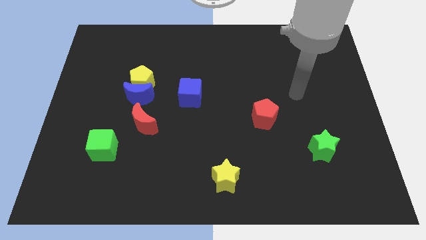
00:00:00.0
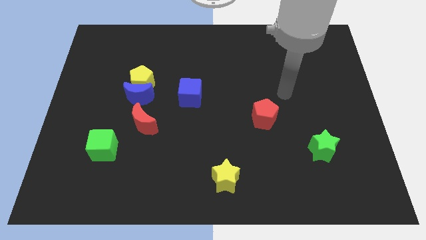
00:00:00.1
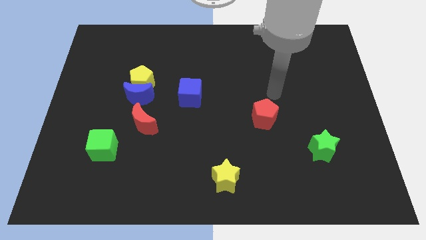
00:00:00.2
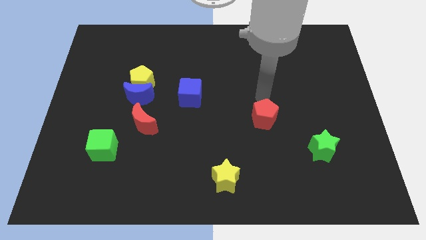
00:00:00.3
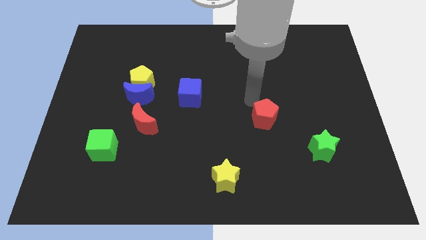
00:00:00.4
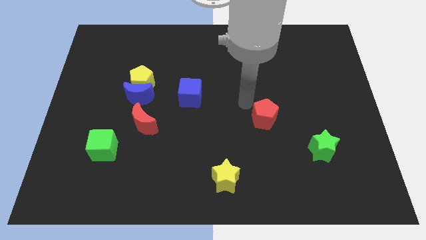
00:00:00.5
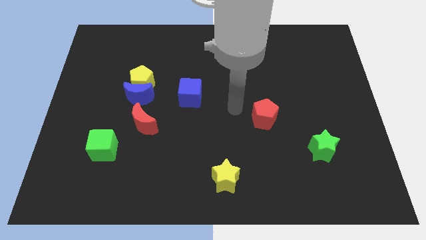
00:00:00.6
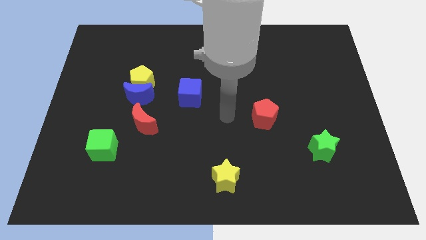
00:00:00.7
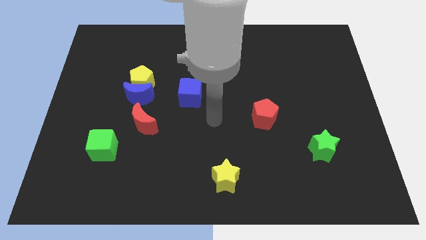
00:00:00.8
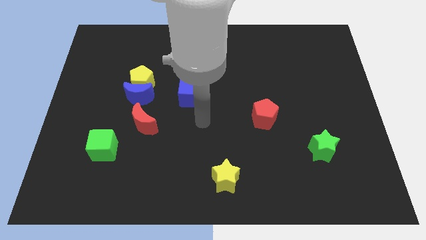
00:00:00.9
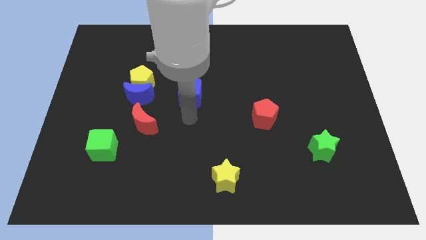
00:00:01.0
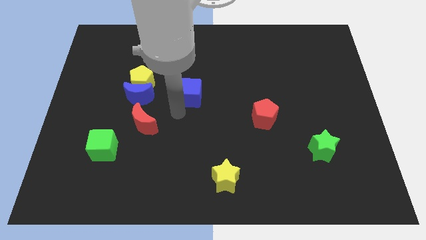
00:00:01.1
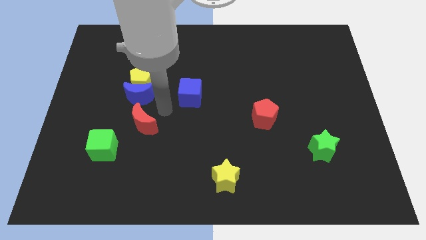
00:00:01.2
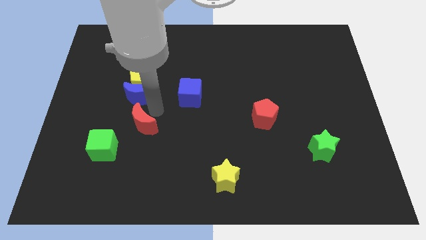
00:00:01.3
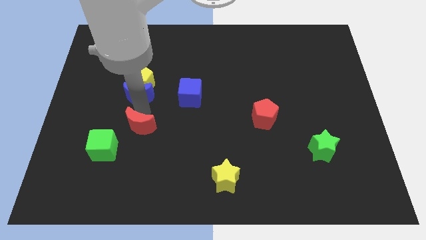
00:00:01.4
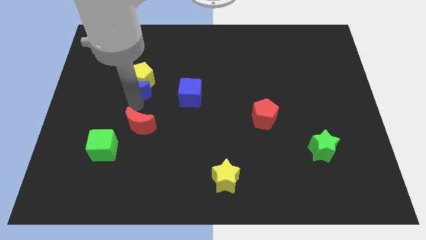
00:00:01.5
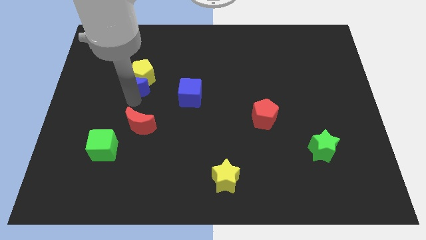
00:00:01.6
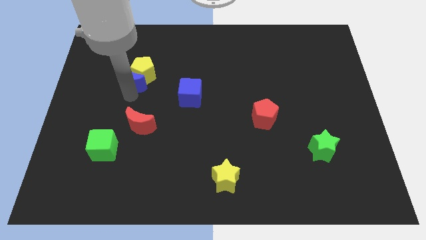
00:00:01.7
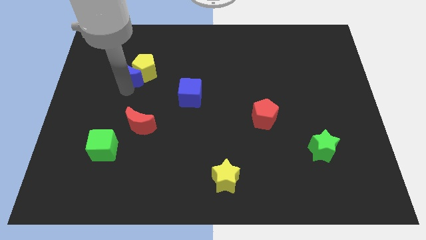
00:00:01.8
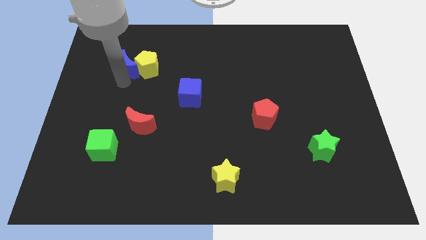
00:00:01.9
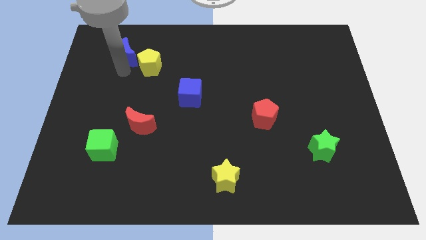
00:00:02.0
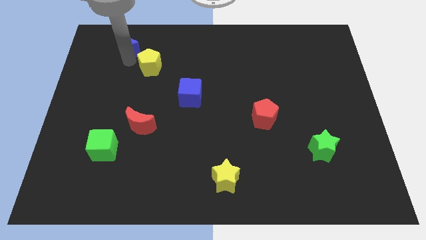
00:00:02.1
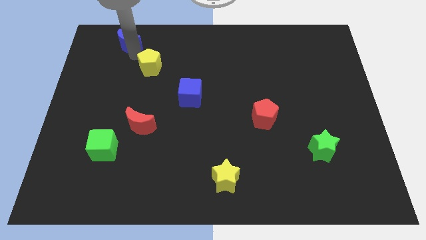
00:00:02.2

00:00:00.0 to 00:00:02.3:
pull the yellow pentagon apart from the blue moon

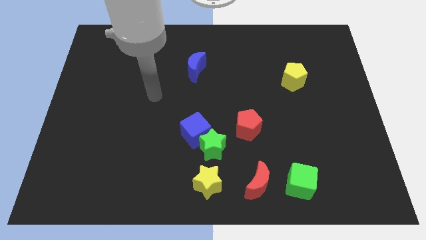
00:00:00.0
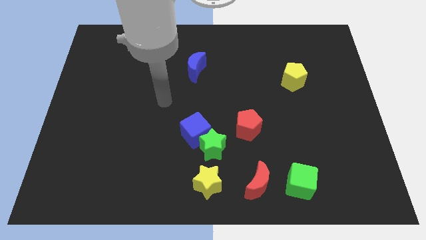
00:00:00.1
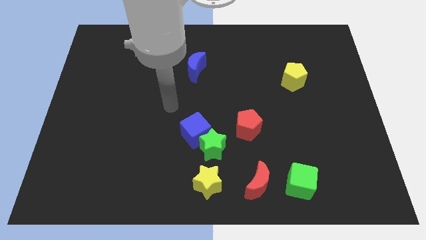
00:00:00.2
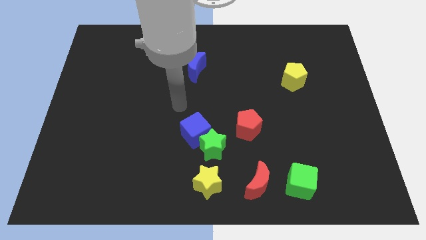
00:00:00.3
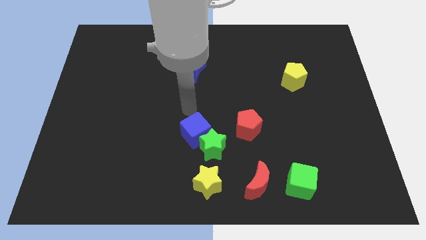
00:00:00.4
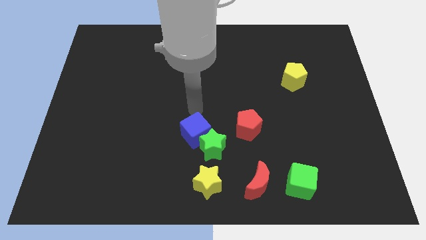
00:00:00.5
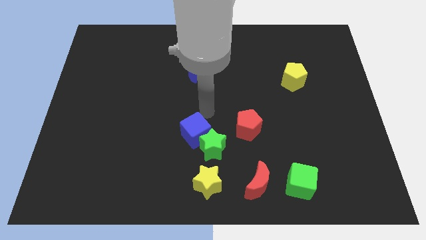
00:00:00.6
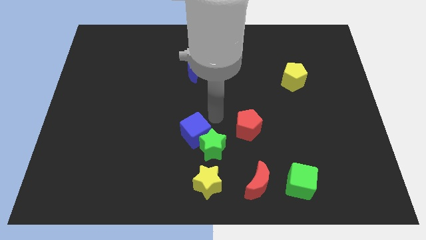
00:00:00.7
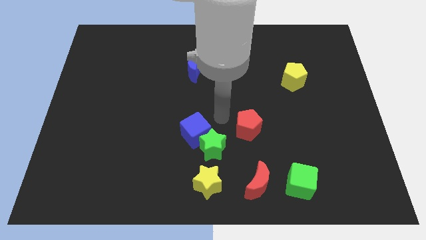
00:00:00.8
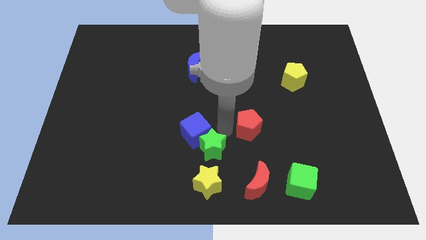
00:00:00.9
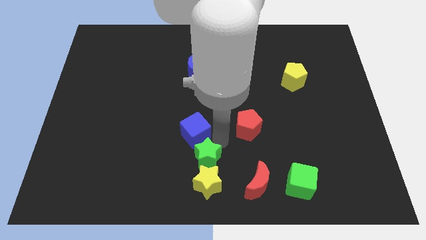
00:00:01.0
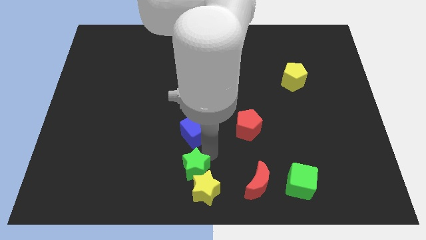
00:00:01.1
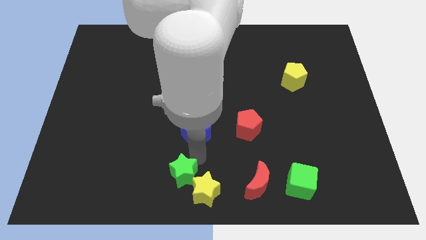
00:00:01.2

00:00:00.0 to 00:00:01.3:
separate the blue cube from the green star

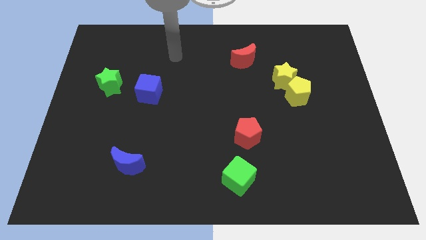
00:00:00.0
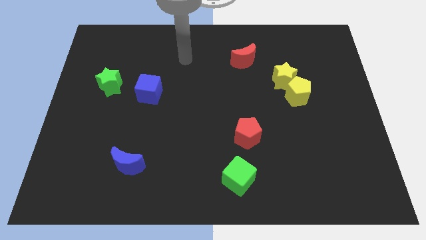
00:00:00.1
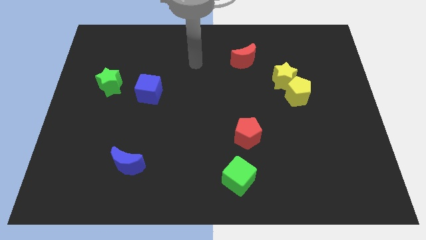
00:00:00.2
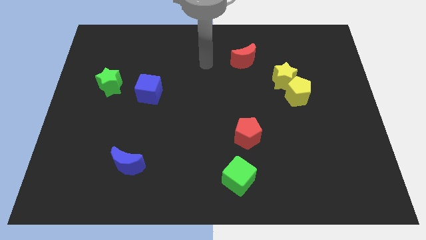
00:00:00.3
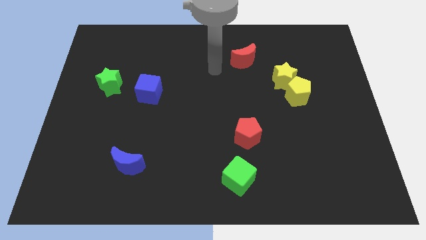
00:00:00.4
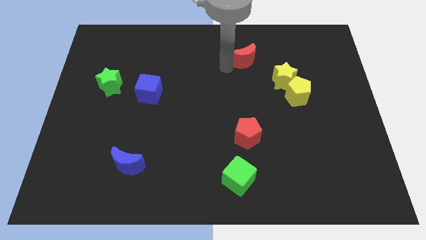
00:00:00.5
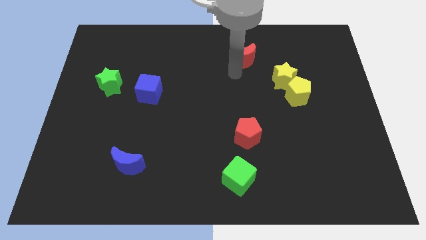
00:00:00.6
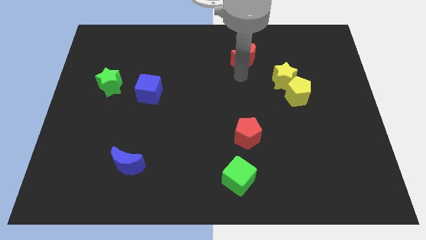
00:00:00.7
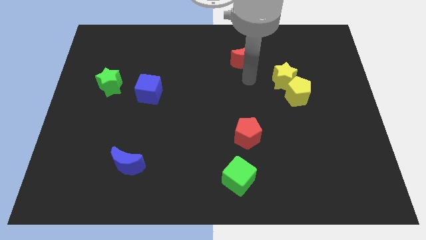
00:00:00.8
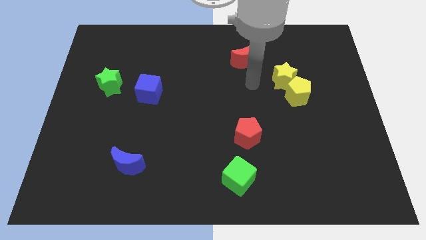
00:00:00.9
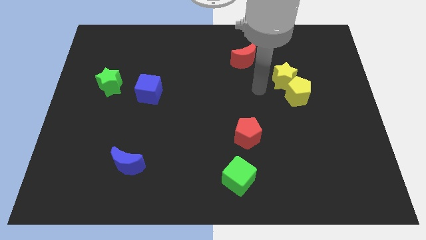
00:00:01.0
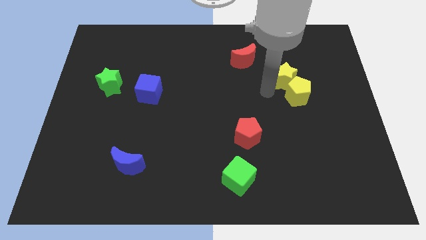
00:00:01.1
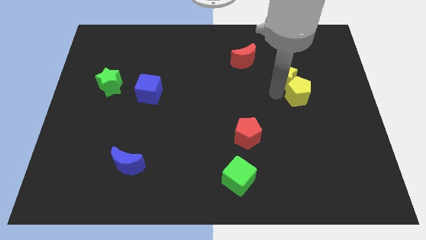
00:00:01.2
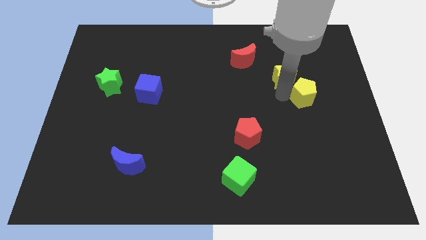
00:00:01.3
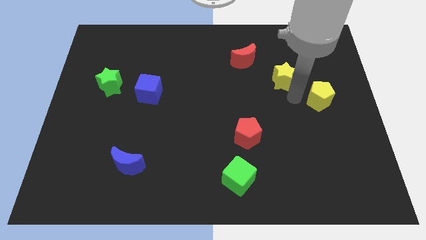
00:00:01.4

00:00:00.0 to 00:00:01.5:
move the yellow star away from the yellow pentagon

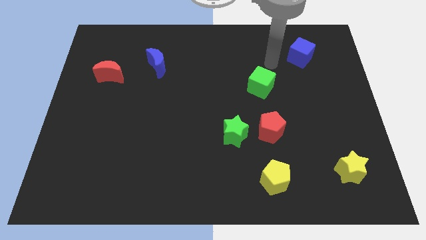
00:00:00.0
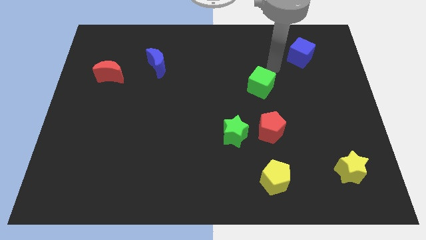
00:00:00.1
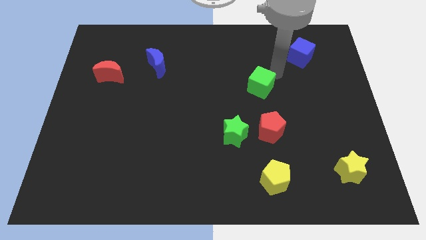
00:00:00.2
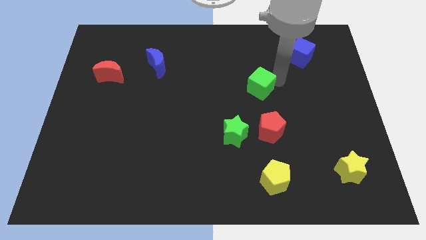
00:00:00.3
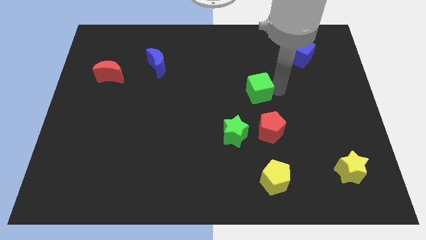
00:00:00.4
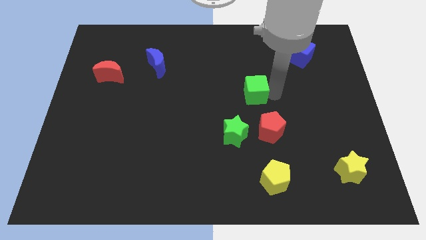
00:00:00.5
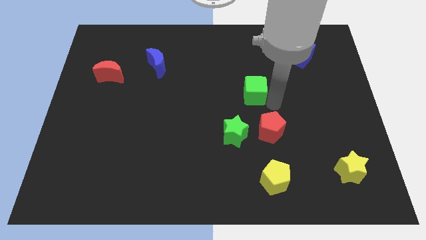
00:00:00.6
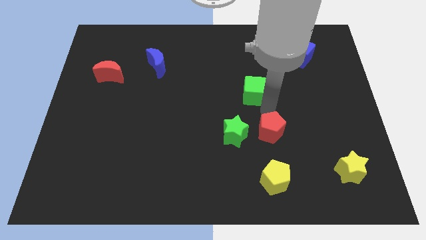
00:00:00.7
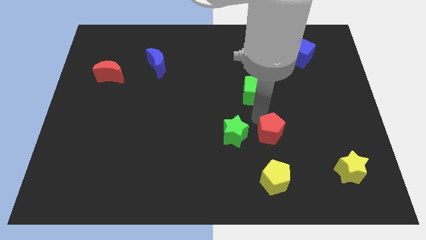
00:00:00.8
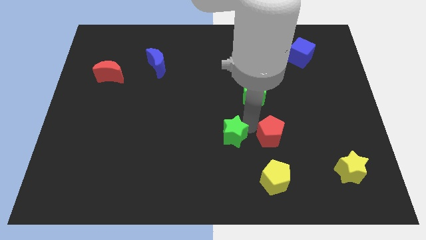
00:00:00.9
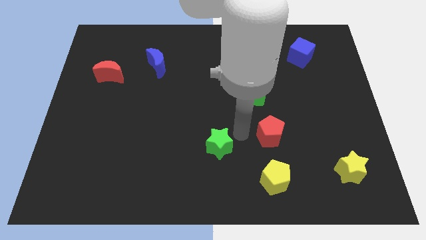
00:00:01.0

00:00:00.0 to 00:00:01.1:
pull the red pentagon apart from the green star

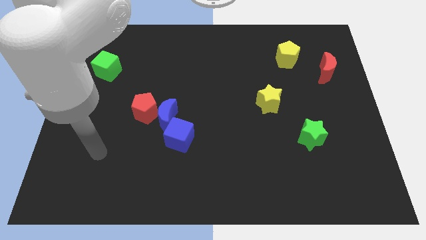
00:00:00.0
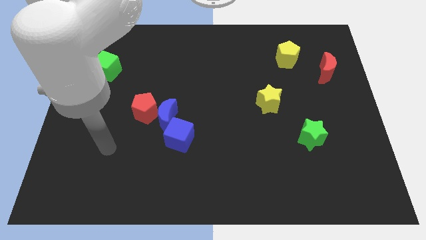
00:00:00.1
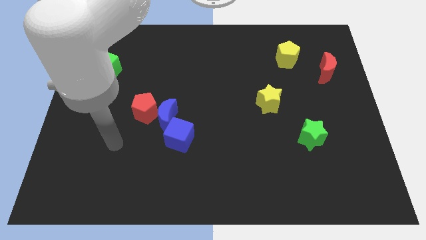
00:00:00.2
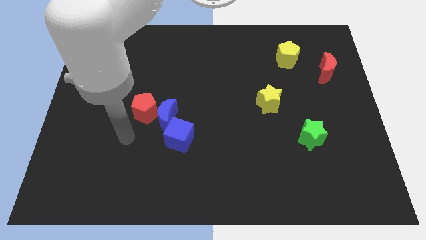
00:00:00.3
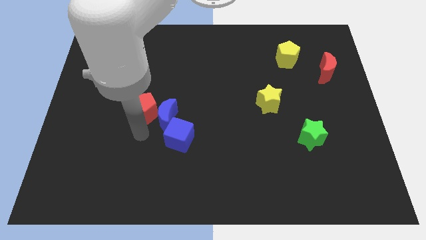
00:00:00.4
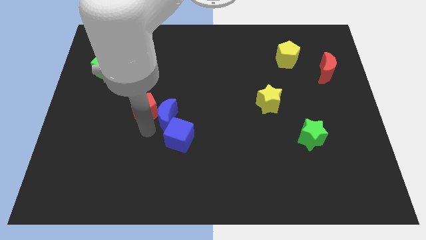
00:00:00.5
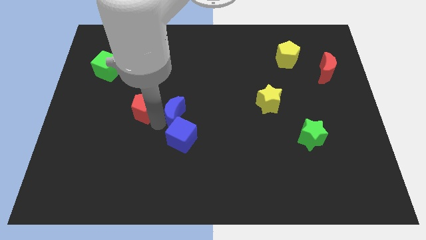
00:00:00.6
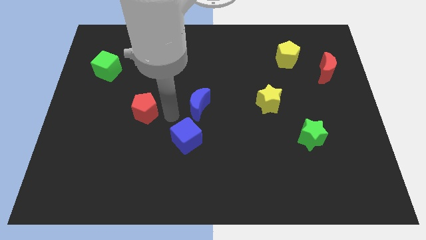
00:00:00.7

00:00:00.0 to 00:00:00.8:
move the red pentagon away from the blue moon

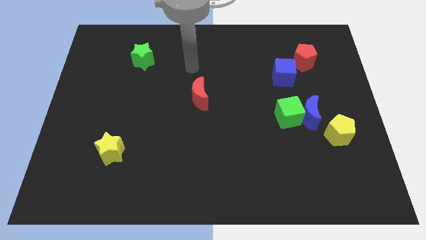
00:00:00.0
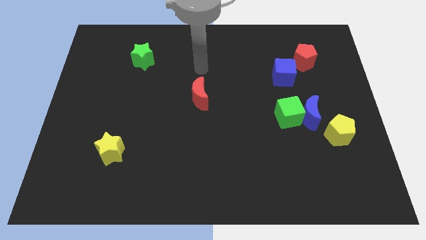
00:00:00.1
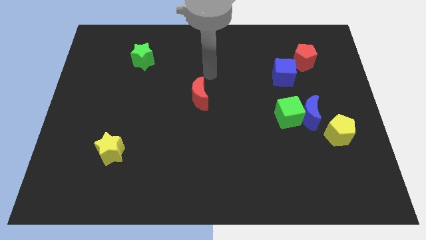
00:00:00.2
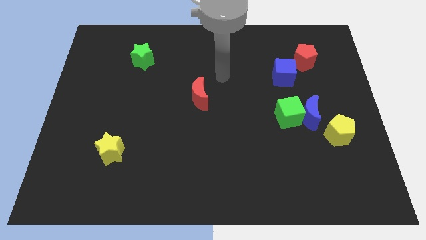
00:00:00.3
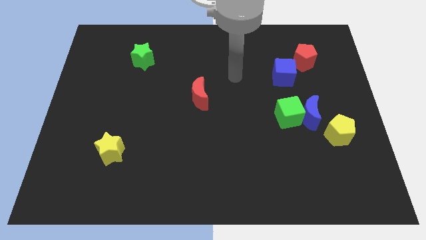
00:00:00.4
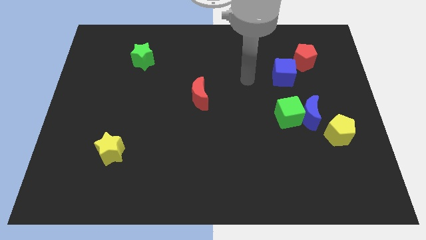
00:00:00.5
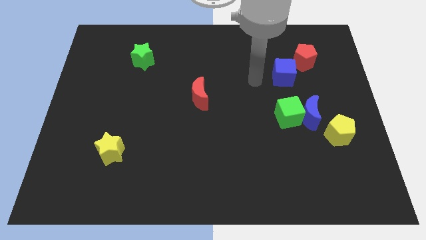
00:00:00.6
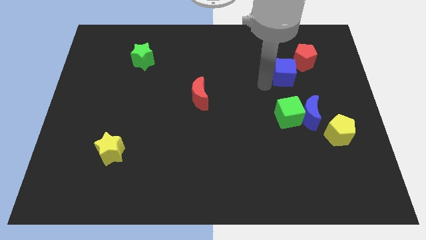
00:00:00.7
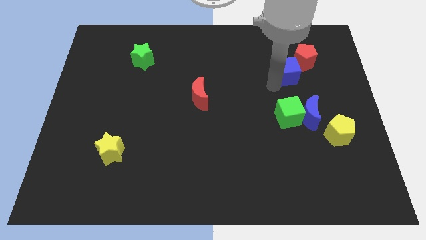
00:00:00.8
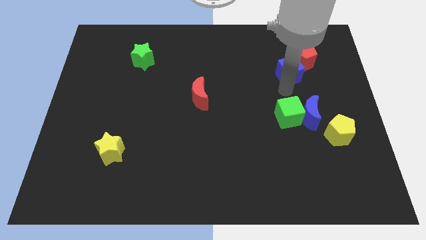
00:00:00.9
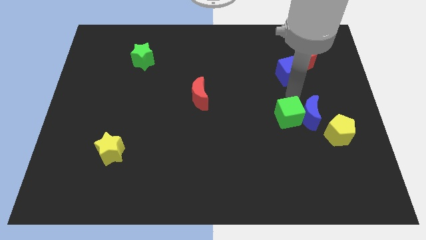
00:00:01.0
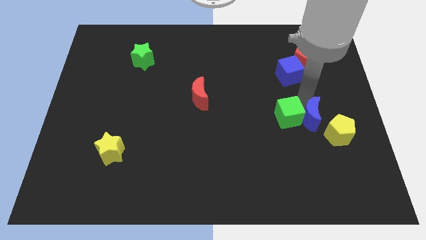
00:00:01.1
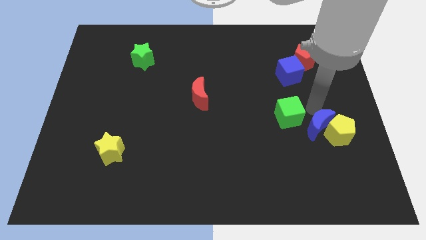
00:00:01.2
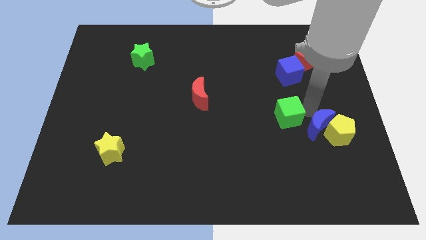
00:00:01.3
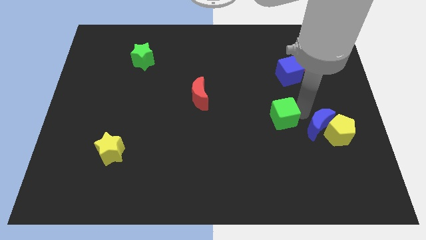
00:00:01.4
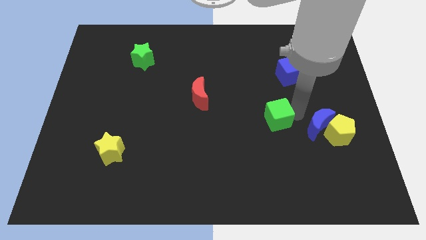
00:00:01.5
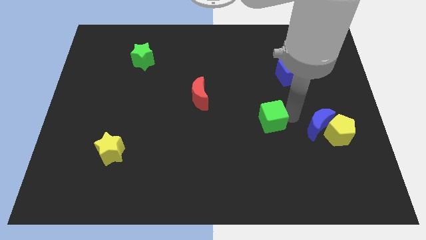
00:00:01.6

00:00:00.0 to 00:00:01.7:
move the green cube away from the blue moon

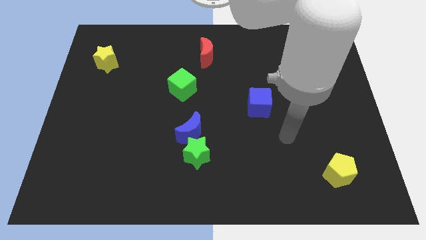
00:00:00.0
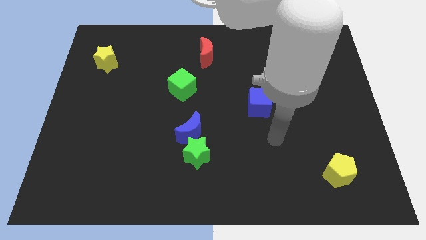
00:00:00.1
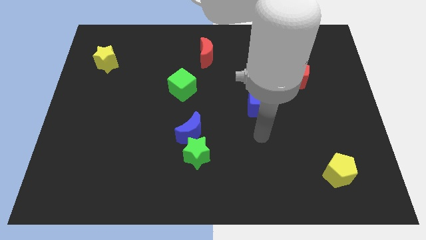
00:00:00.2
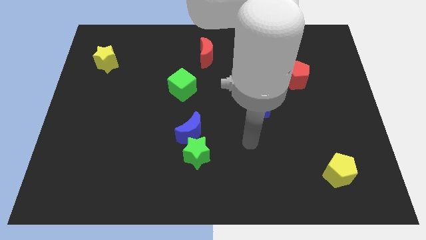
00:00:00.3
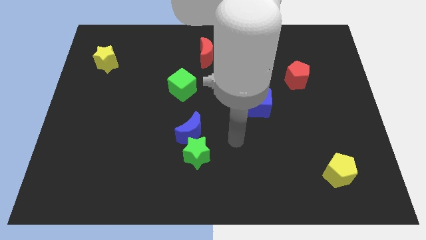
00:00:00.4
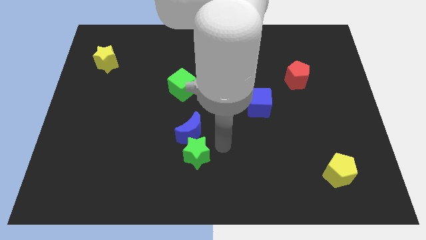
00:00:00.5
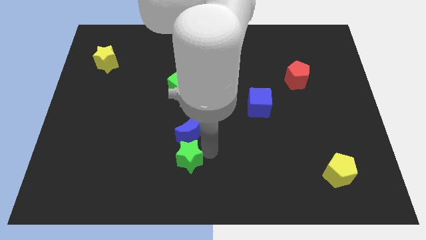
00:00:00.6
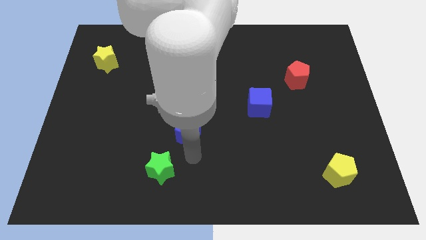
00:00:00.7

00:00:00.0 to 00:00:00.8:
pull the blue moon apart from the green star
